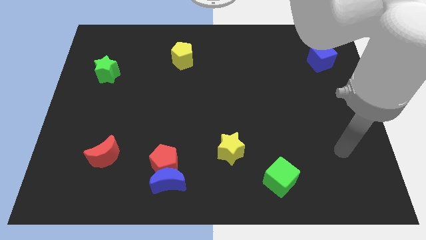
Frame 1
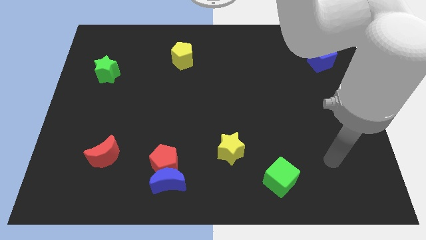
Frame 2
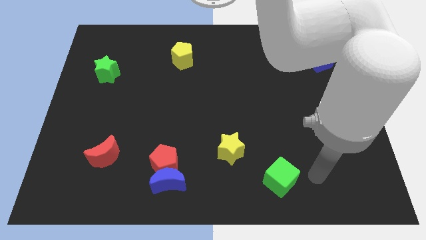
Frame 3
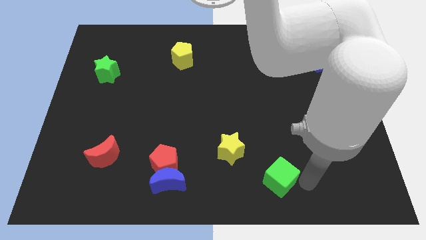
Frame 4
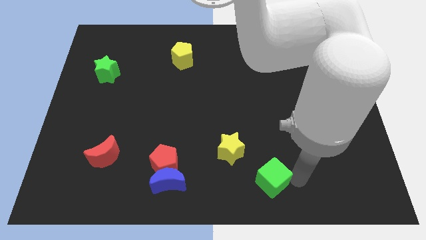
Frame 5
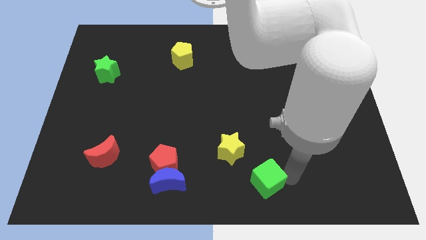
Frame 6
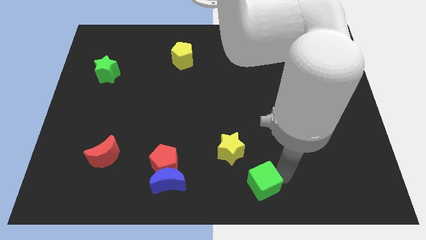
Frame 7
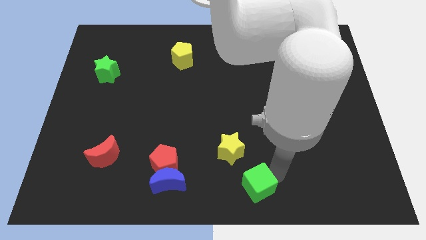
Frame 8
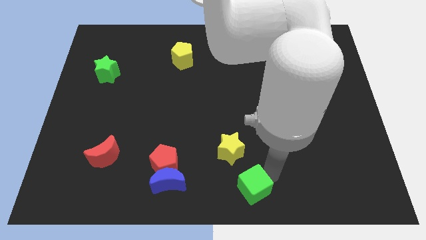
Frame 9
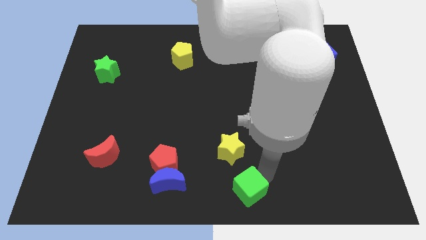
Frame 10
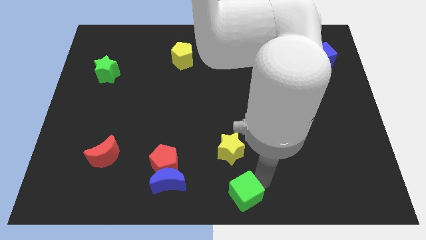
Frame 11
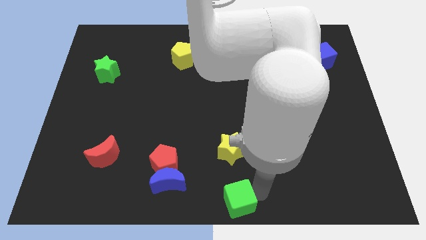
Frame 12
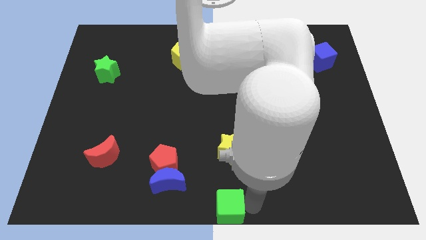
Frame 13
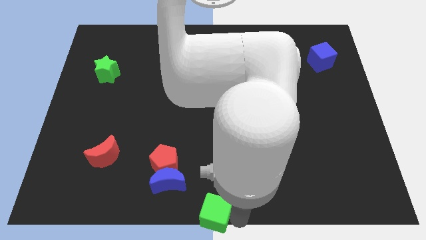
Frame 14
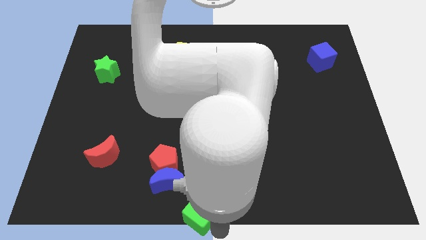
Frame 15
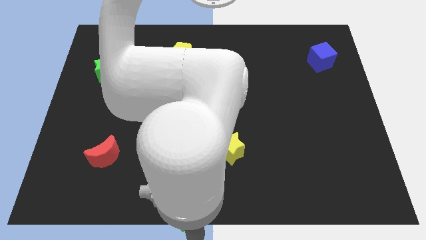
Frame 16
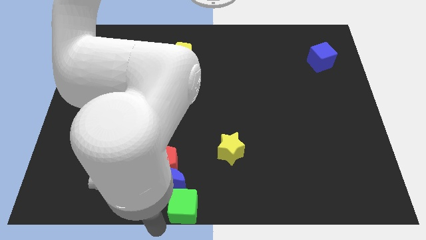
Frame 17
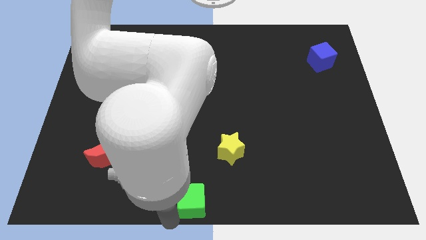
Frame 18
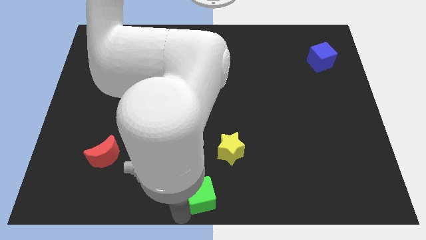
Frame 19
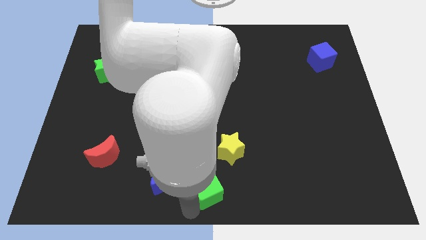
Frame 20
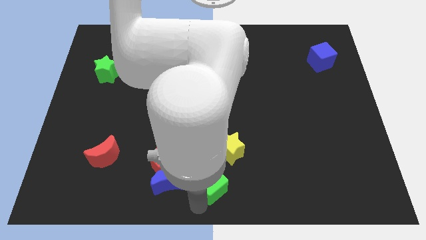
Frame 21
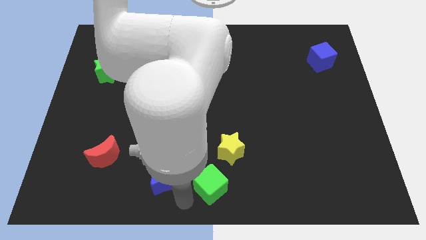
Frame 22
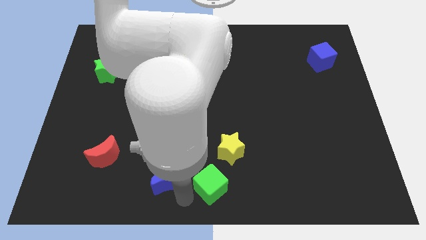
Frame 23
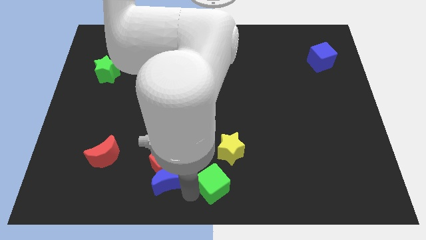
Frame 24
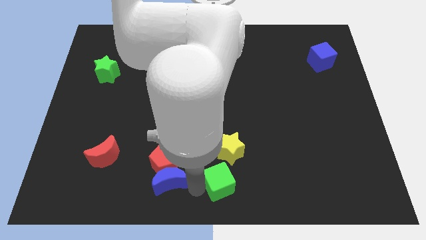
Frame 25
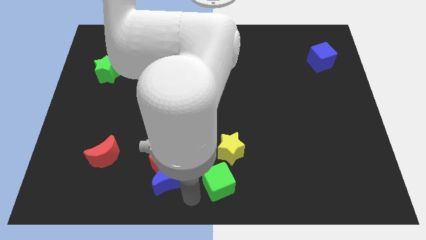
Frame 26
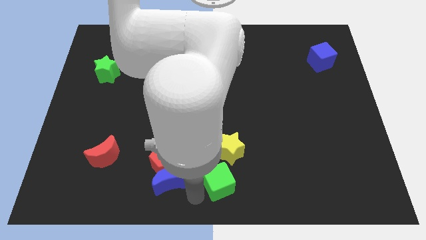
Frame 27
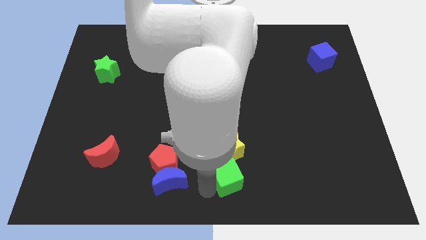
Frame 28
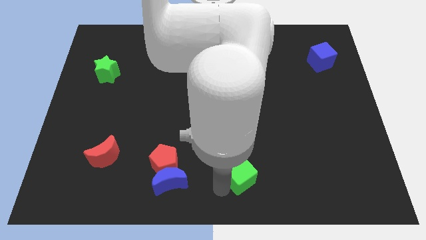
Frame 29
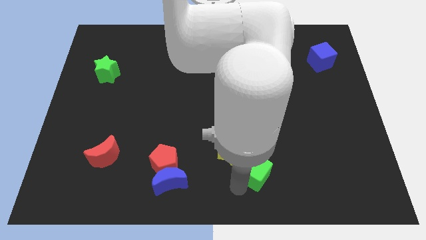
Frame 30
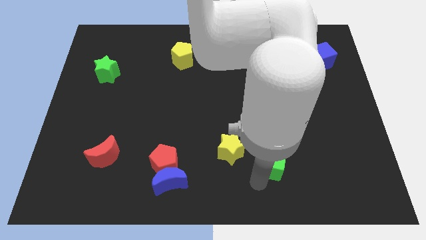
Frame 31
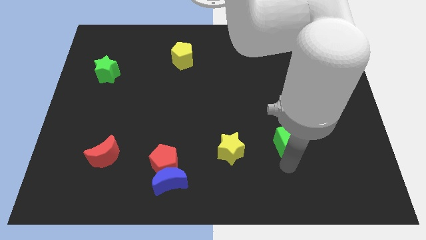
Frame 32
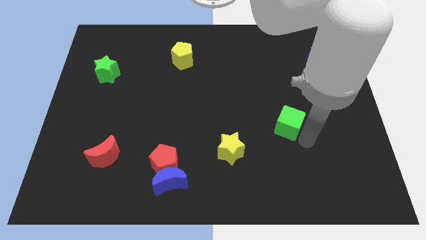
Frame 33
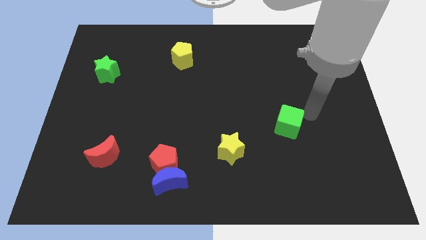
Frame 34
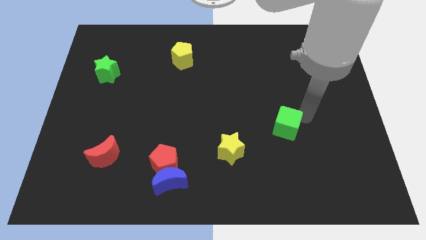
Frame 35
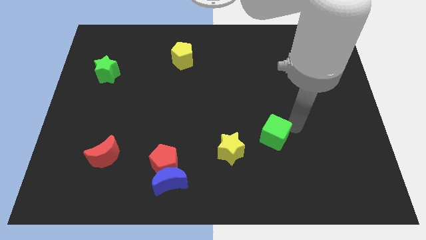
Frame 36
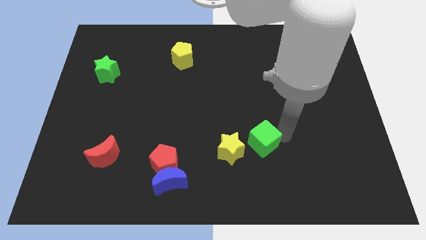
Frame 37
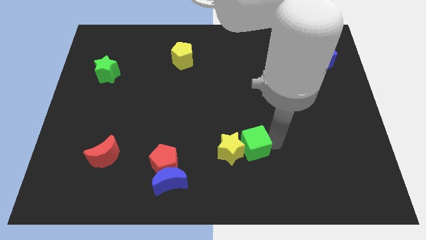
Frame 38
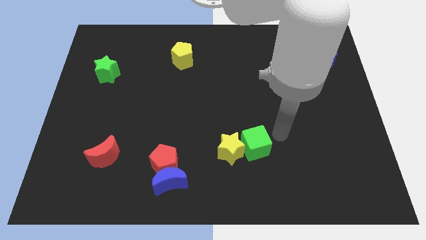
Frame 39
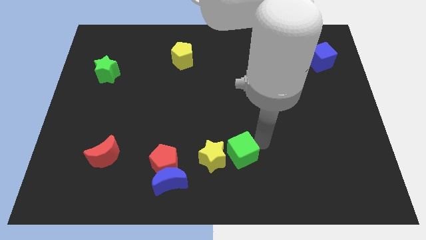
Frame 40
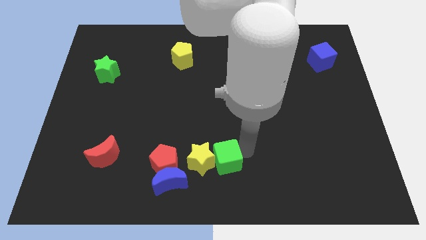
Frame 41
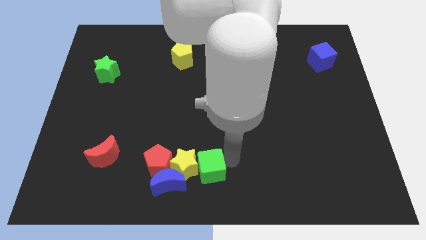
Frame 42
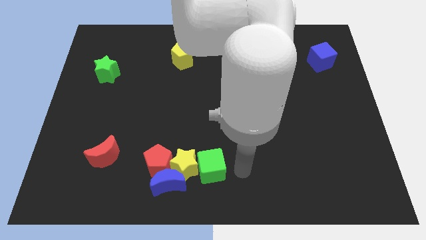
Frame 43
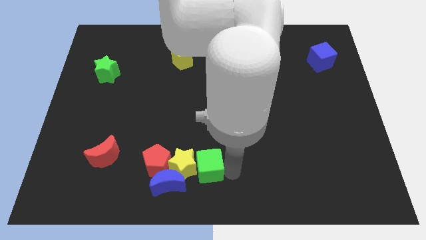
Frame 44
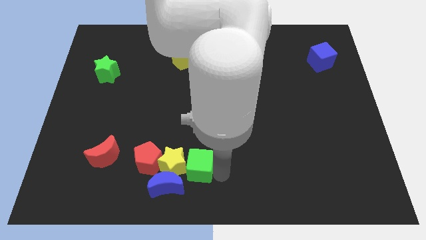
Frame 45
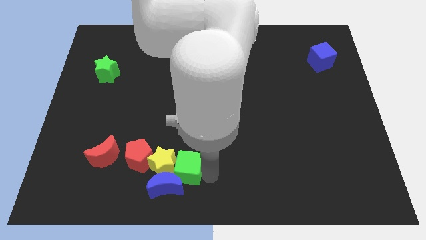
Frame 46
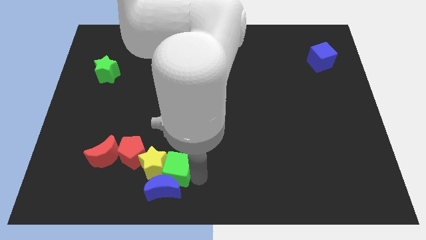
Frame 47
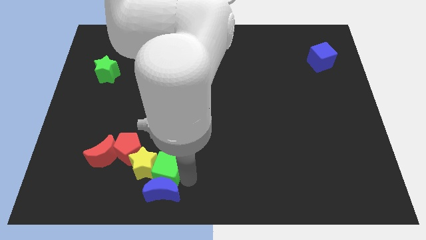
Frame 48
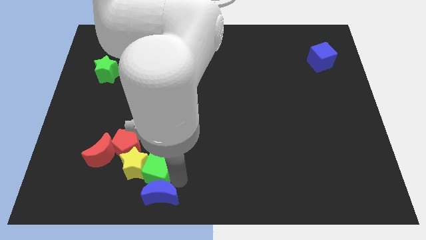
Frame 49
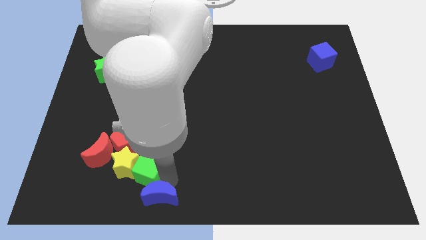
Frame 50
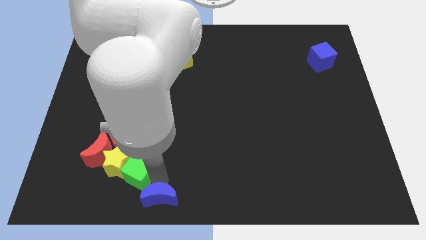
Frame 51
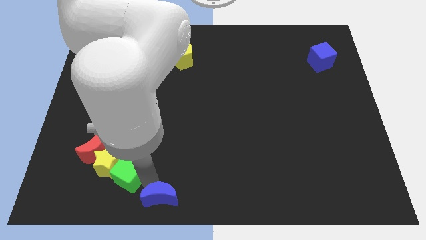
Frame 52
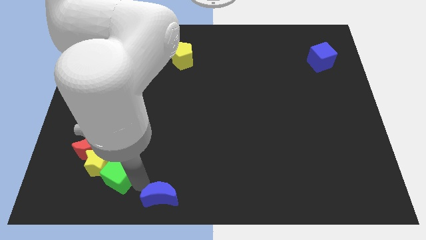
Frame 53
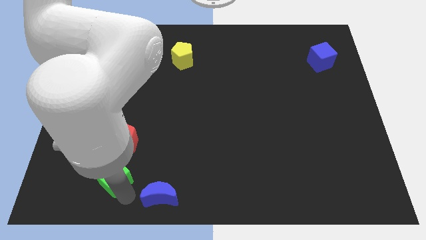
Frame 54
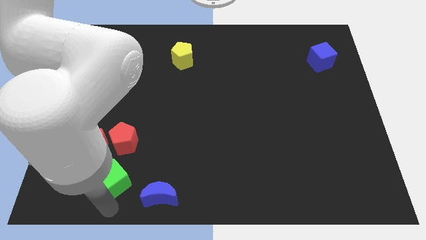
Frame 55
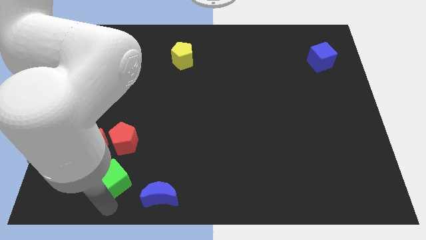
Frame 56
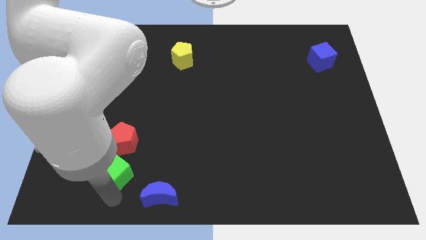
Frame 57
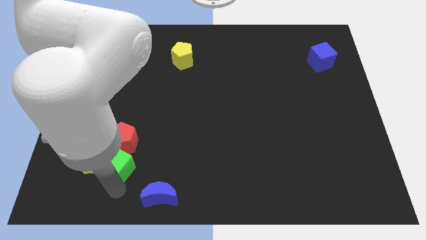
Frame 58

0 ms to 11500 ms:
move the green cube close to the red pentagon
